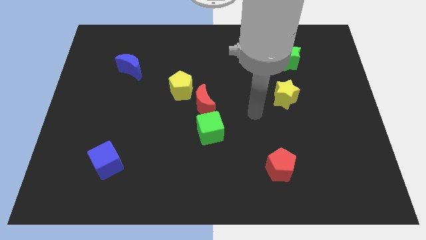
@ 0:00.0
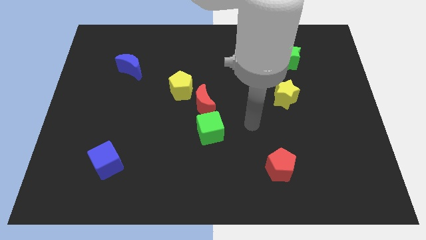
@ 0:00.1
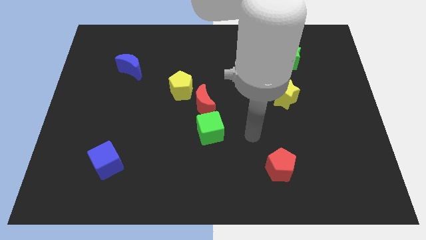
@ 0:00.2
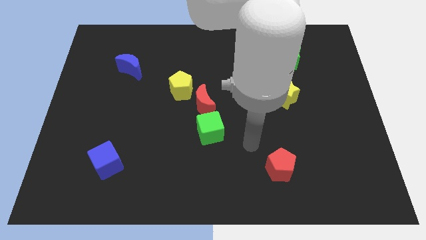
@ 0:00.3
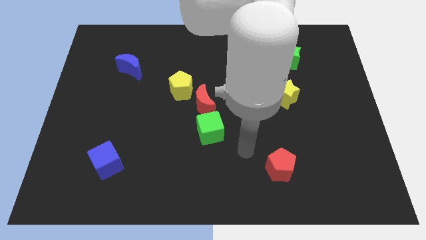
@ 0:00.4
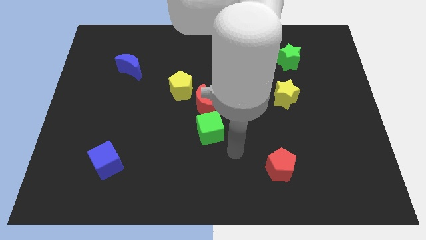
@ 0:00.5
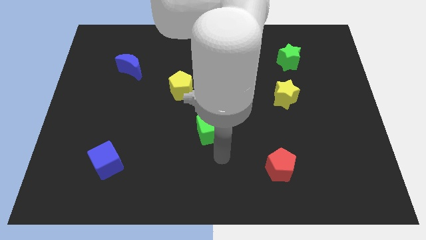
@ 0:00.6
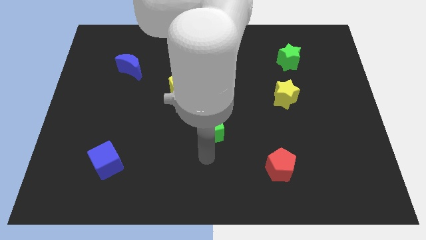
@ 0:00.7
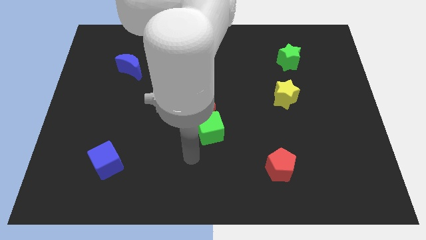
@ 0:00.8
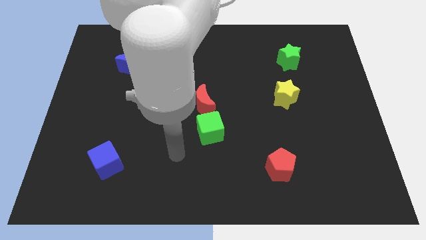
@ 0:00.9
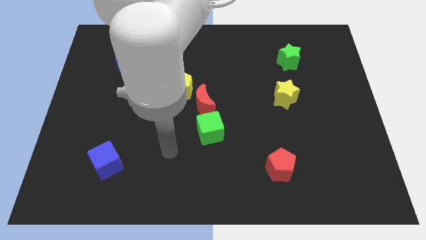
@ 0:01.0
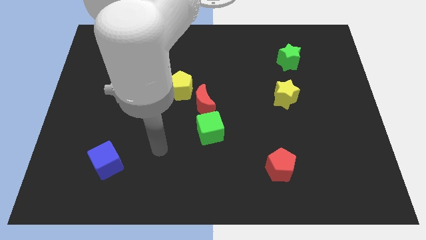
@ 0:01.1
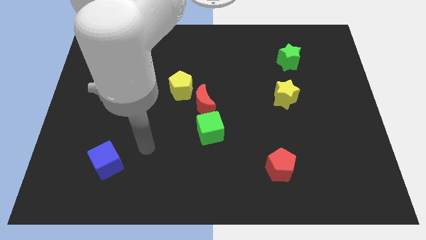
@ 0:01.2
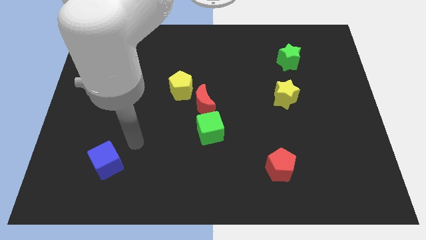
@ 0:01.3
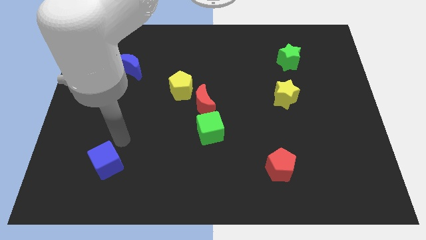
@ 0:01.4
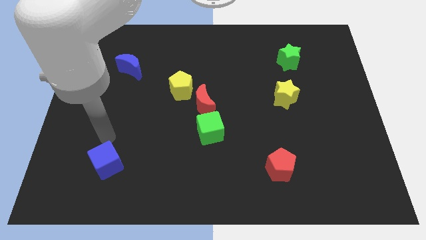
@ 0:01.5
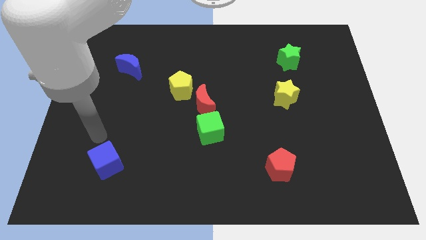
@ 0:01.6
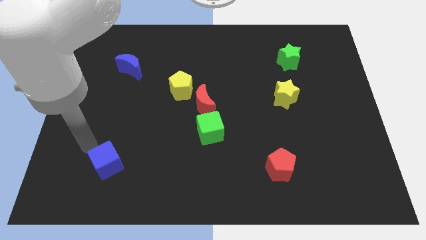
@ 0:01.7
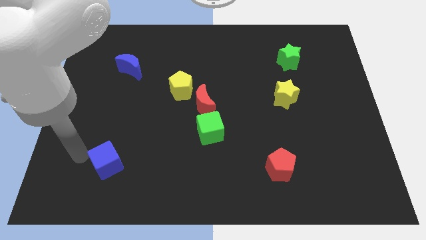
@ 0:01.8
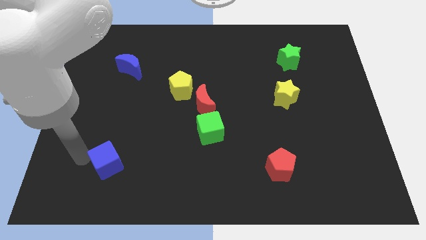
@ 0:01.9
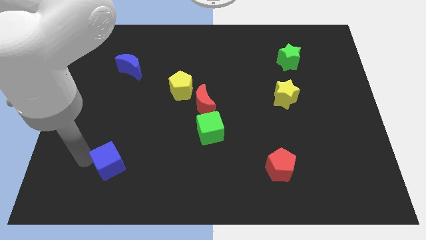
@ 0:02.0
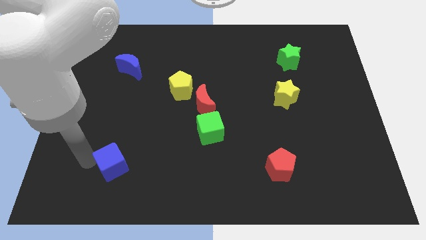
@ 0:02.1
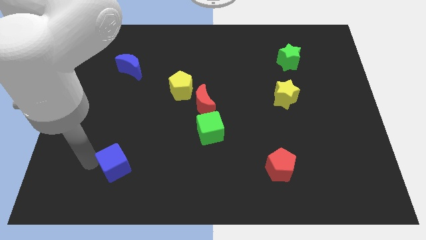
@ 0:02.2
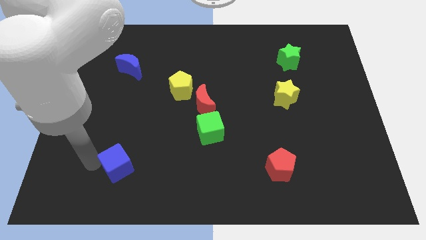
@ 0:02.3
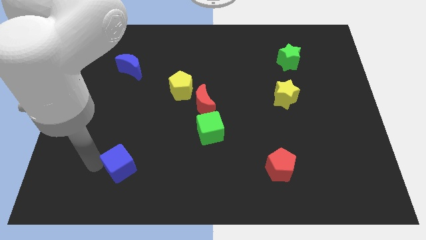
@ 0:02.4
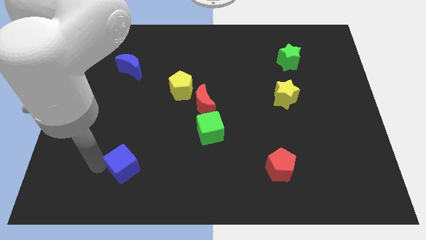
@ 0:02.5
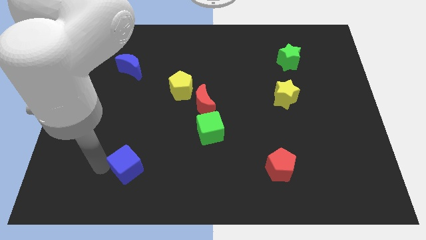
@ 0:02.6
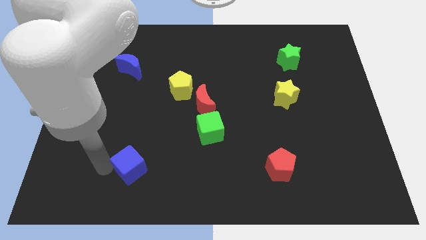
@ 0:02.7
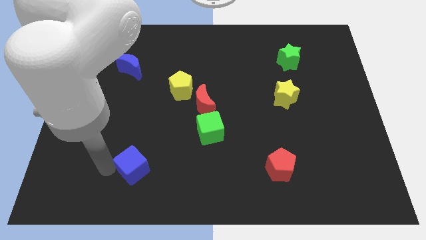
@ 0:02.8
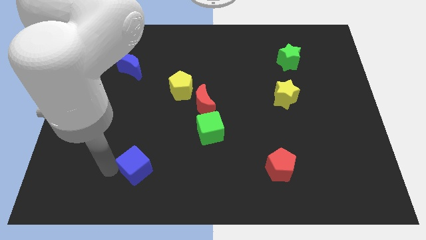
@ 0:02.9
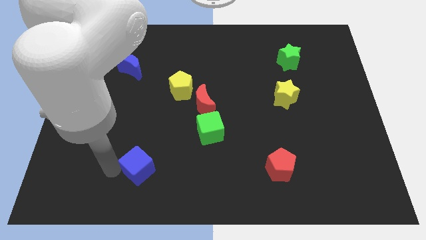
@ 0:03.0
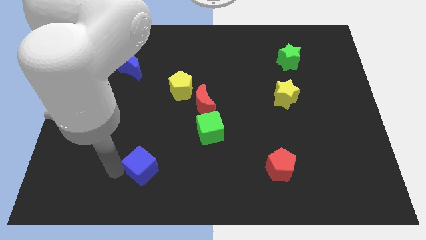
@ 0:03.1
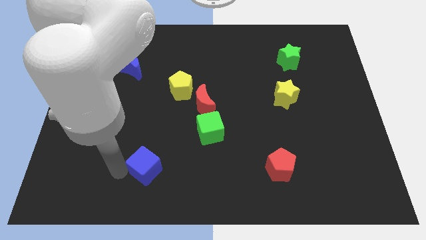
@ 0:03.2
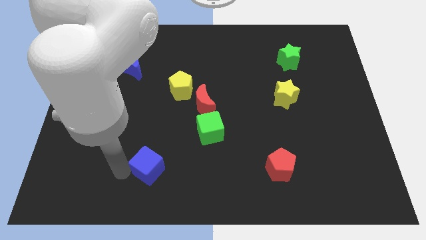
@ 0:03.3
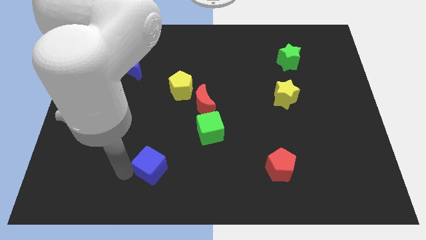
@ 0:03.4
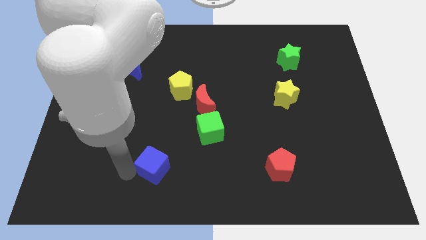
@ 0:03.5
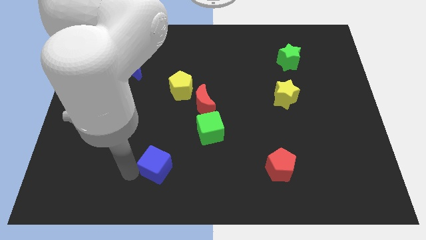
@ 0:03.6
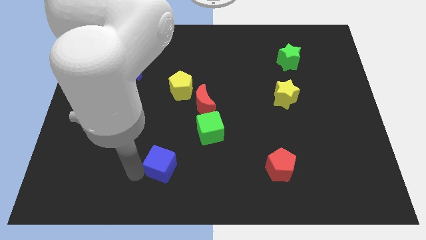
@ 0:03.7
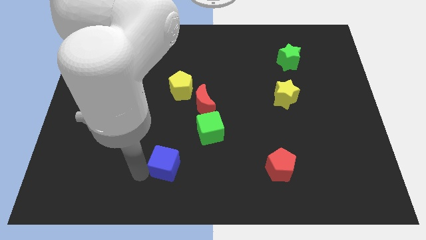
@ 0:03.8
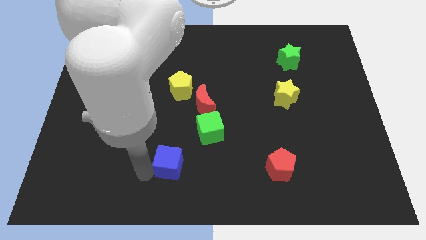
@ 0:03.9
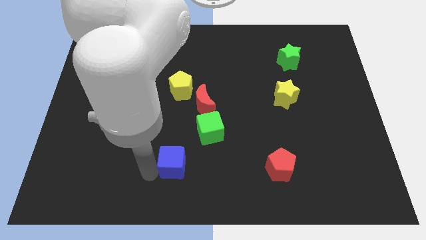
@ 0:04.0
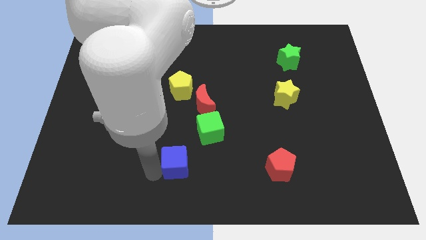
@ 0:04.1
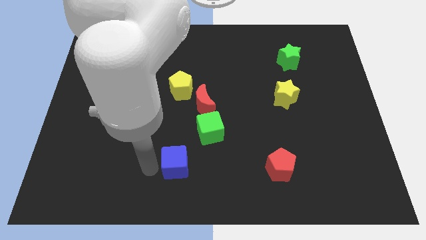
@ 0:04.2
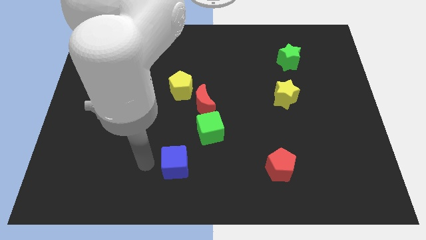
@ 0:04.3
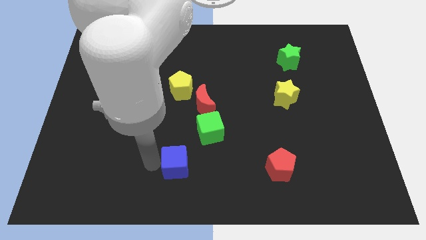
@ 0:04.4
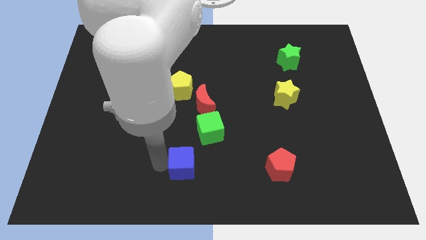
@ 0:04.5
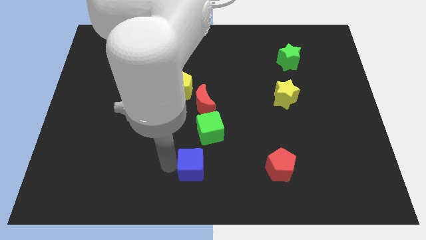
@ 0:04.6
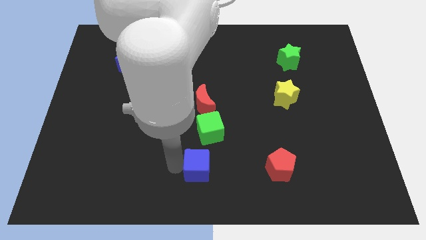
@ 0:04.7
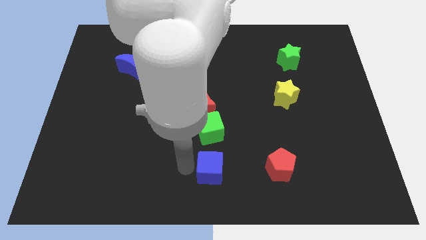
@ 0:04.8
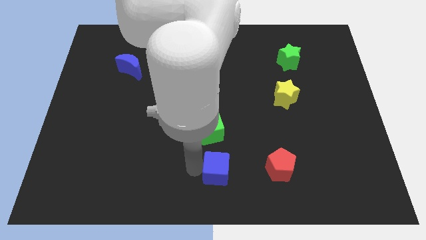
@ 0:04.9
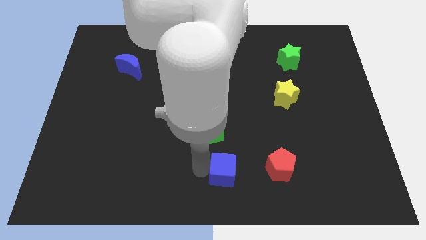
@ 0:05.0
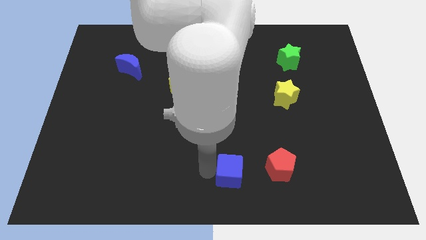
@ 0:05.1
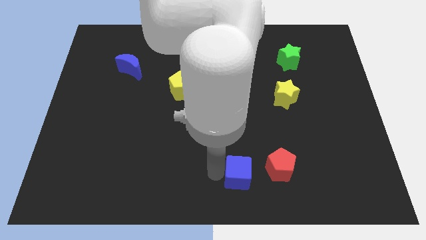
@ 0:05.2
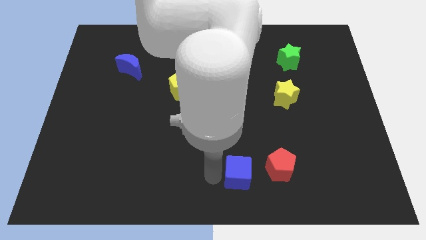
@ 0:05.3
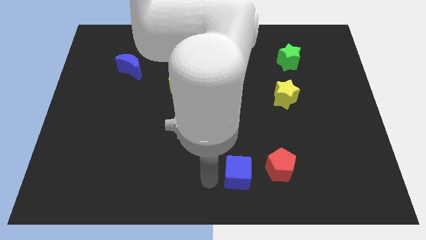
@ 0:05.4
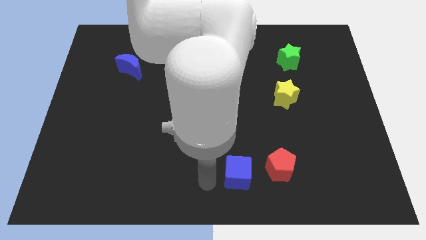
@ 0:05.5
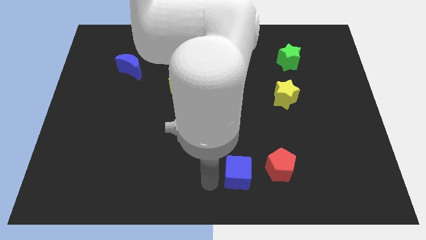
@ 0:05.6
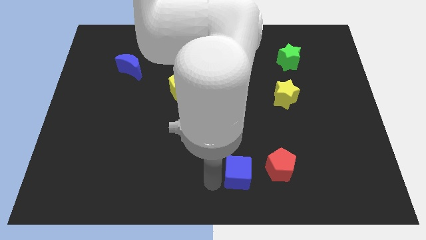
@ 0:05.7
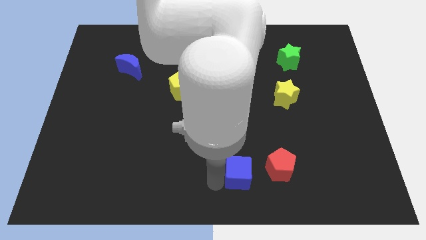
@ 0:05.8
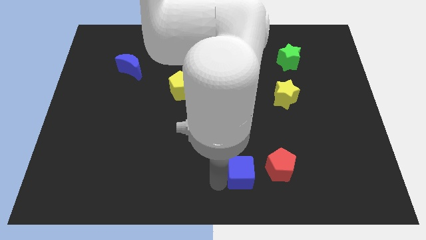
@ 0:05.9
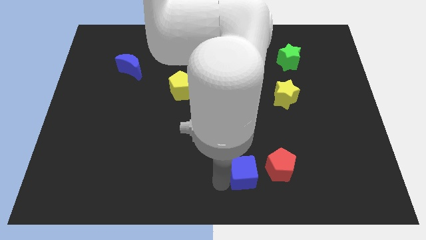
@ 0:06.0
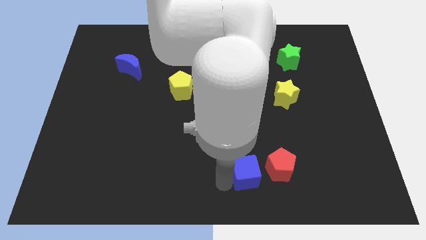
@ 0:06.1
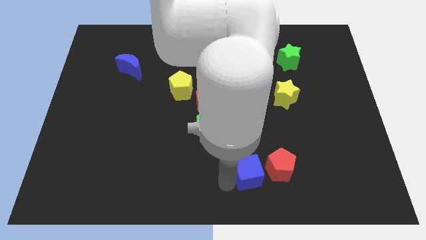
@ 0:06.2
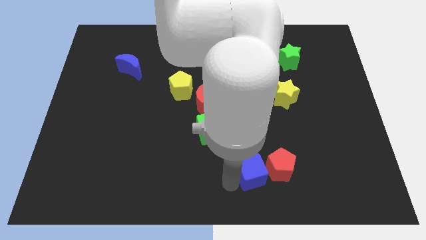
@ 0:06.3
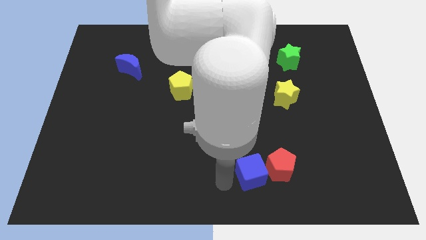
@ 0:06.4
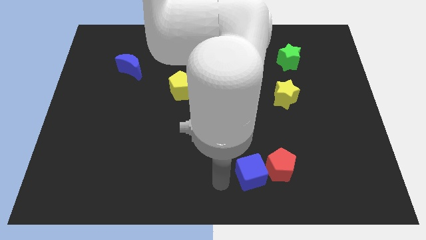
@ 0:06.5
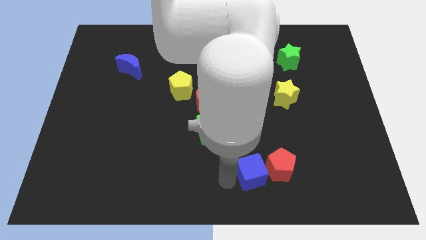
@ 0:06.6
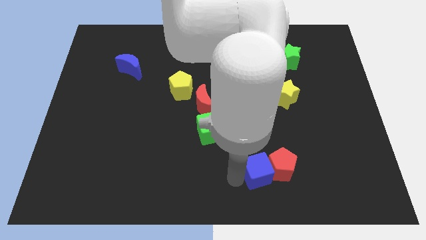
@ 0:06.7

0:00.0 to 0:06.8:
slide the blue cube next to the red pentagon
